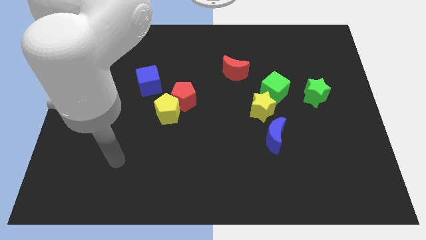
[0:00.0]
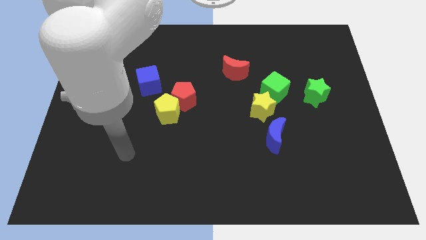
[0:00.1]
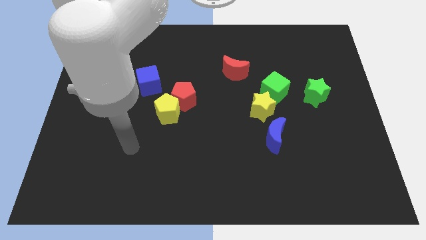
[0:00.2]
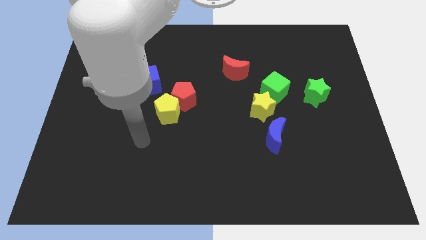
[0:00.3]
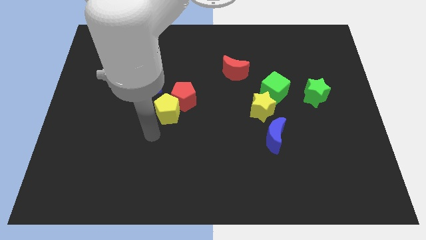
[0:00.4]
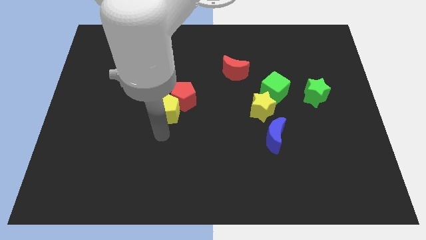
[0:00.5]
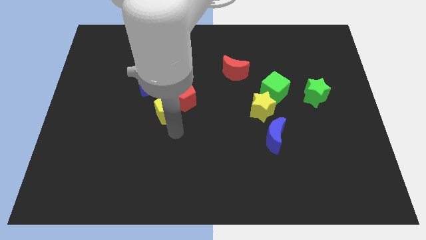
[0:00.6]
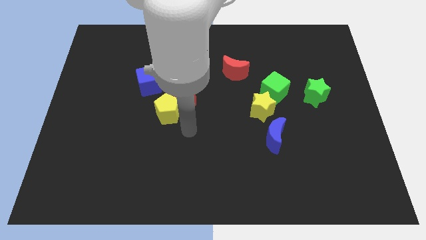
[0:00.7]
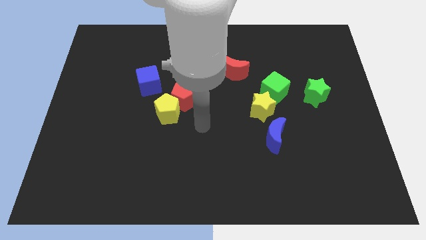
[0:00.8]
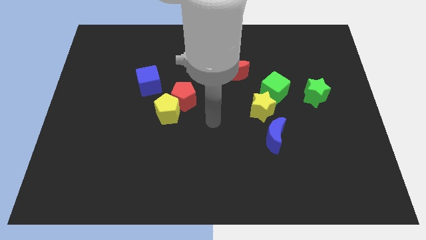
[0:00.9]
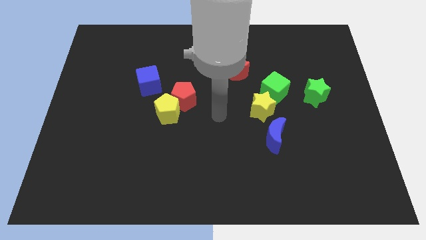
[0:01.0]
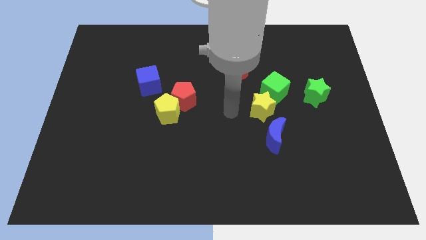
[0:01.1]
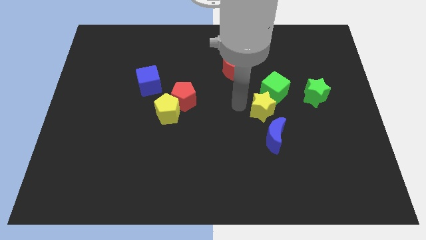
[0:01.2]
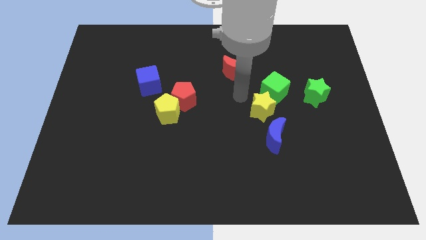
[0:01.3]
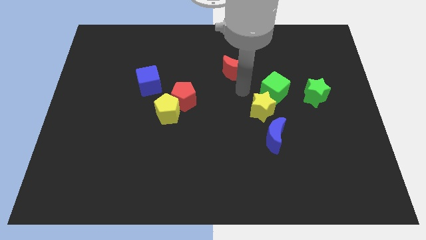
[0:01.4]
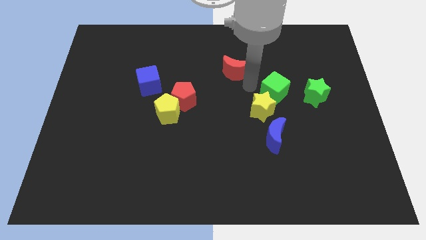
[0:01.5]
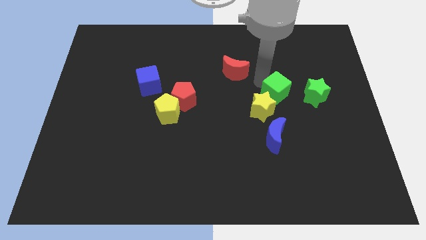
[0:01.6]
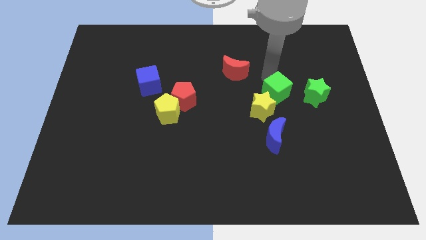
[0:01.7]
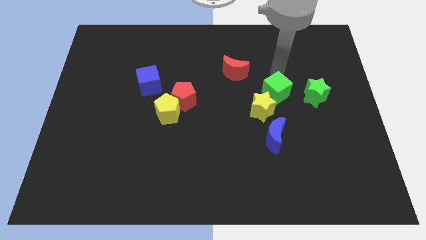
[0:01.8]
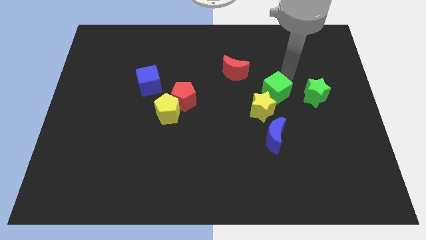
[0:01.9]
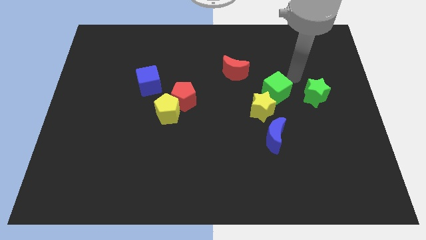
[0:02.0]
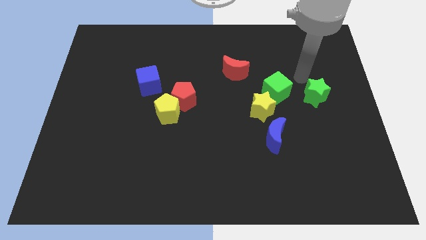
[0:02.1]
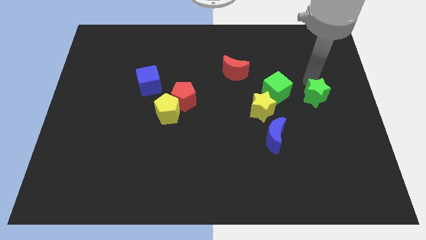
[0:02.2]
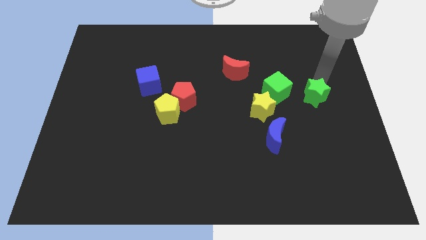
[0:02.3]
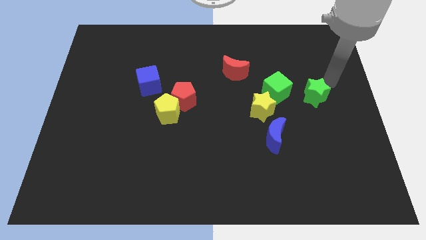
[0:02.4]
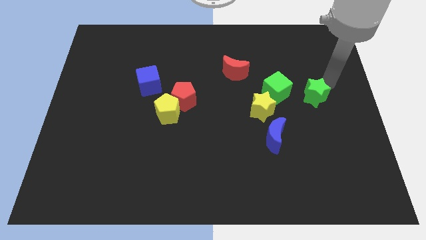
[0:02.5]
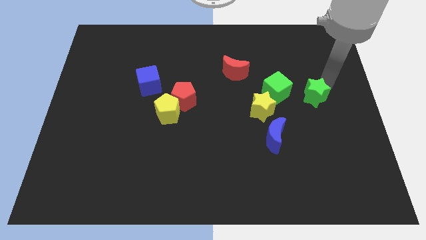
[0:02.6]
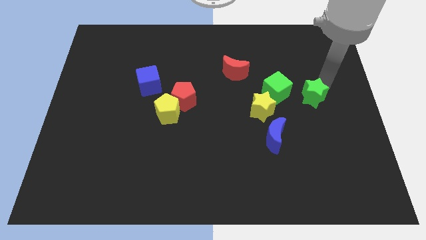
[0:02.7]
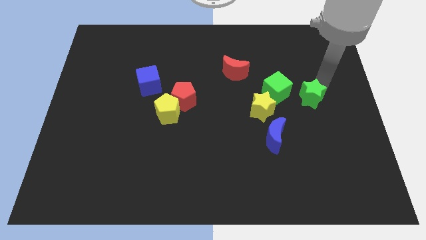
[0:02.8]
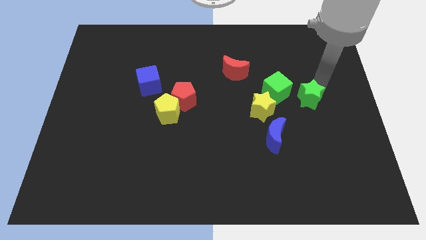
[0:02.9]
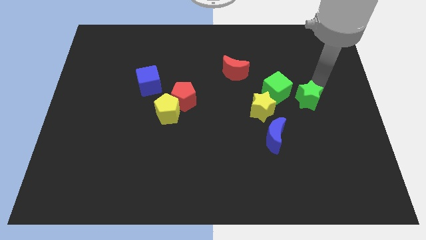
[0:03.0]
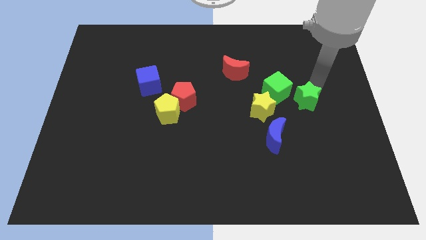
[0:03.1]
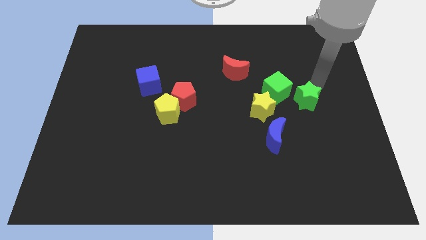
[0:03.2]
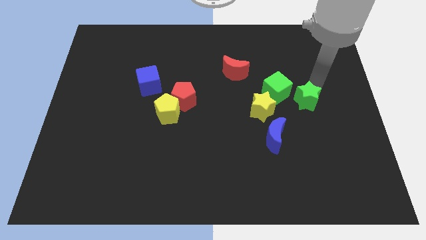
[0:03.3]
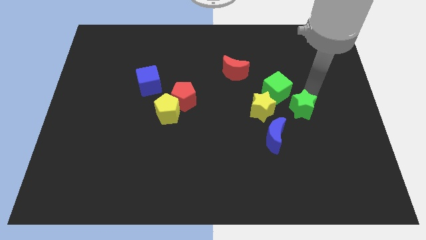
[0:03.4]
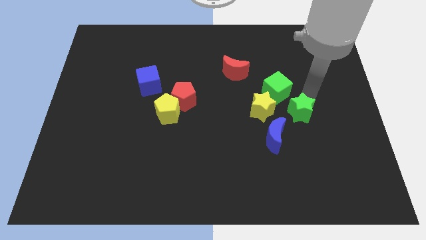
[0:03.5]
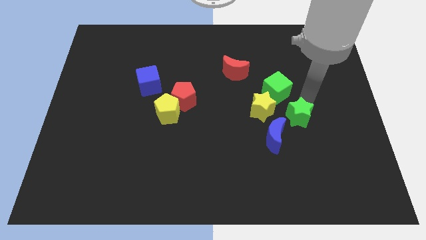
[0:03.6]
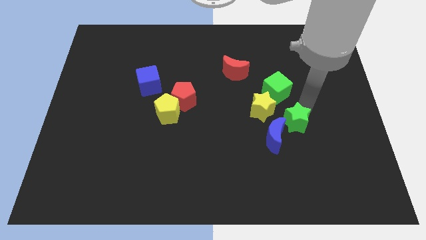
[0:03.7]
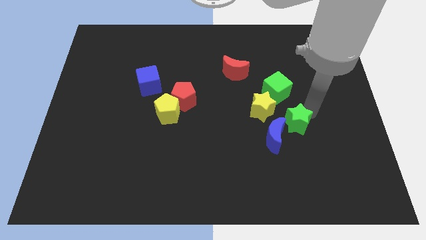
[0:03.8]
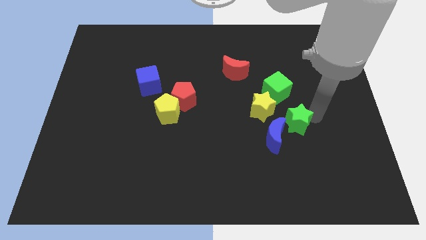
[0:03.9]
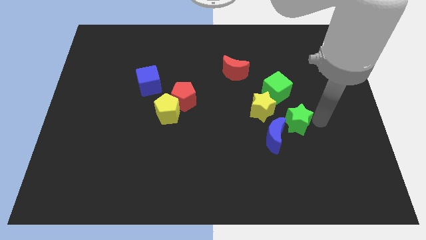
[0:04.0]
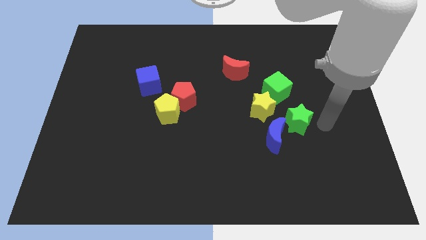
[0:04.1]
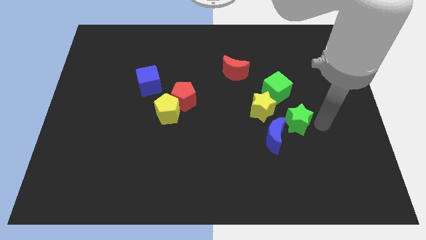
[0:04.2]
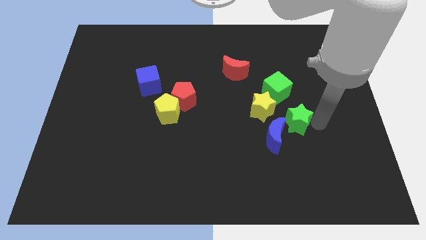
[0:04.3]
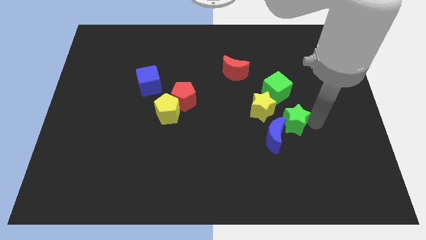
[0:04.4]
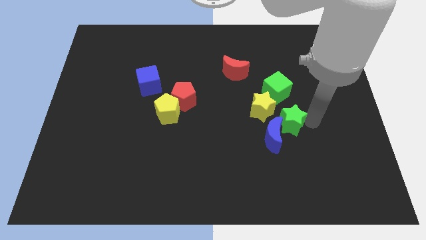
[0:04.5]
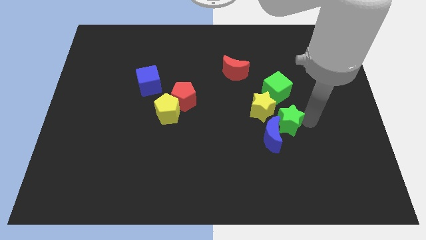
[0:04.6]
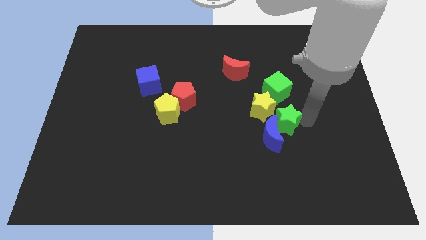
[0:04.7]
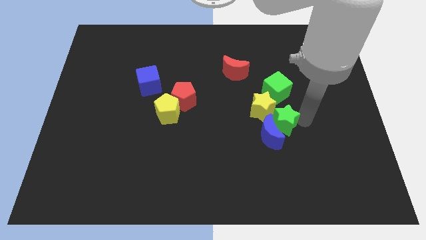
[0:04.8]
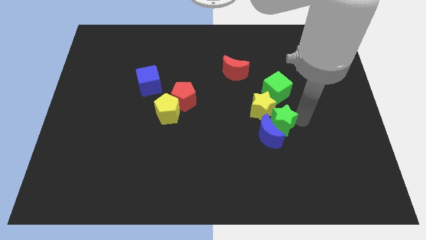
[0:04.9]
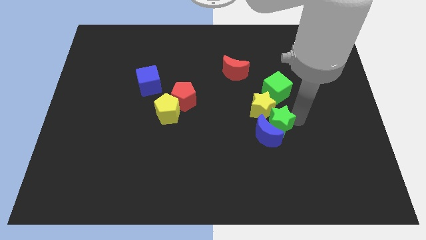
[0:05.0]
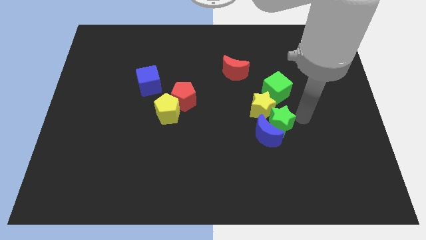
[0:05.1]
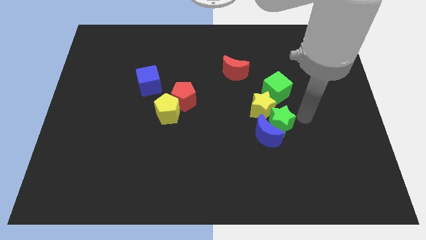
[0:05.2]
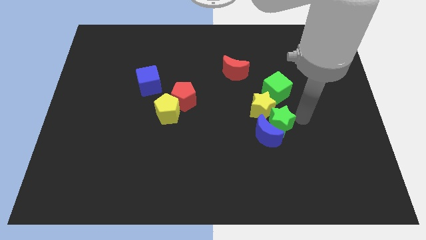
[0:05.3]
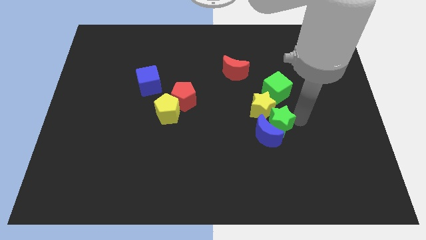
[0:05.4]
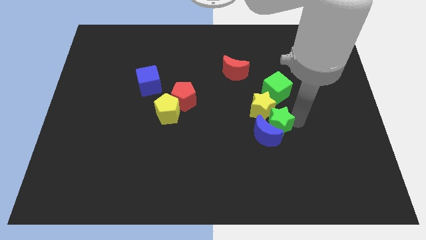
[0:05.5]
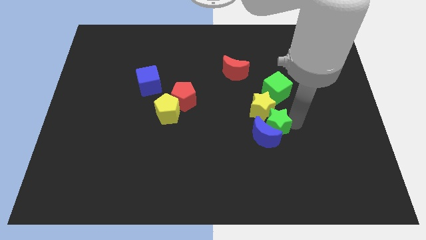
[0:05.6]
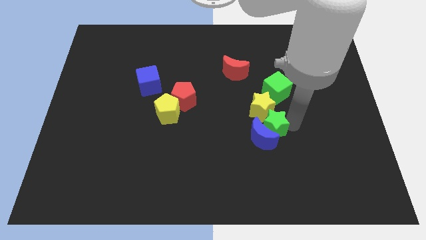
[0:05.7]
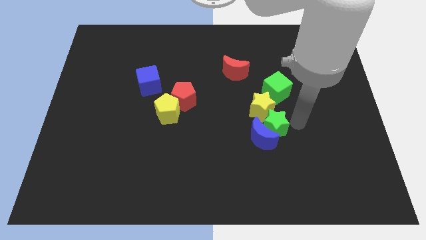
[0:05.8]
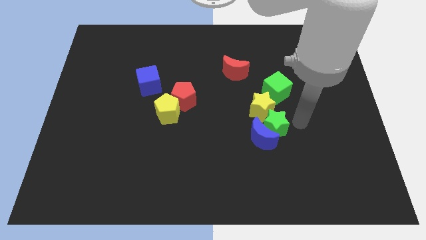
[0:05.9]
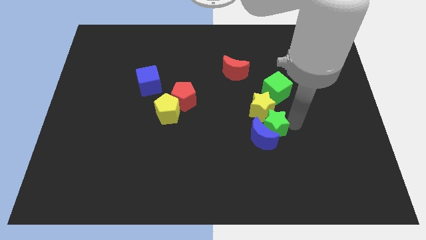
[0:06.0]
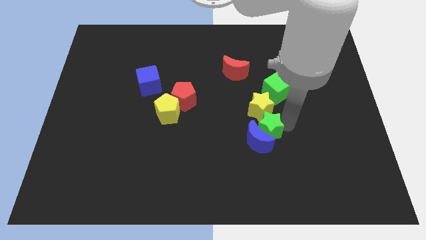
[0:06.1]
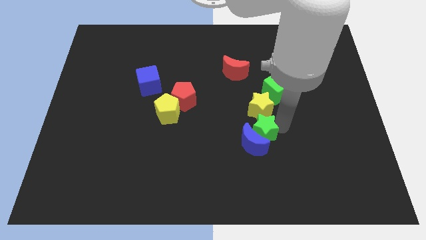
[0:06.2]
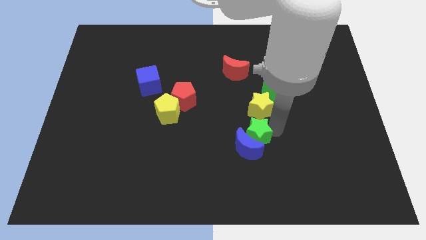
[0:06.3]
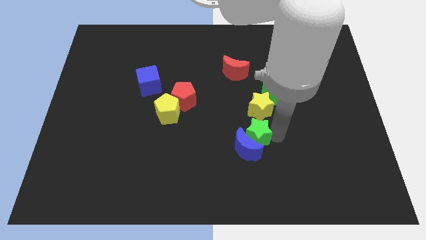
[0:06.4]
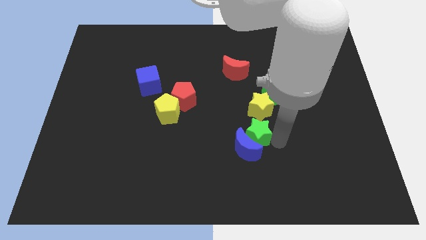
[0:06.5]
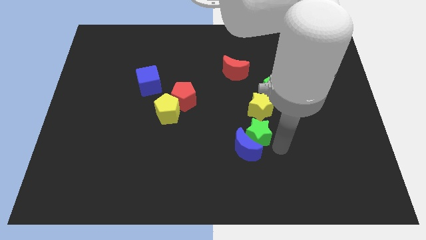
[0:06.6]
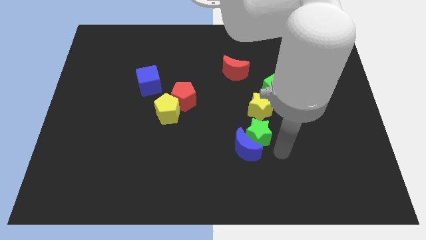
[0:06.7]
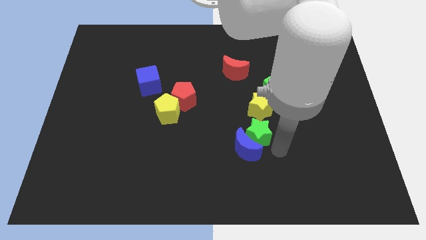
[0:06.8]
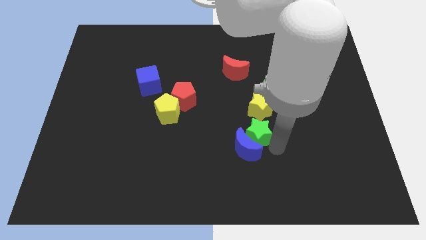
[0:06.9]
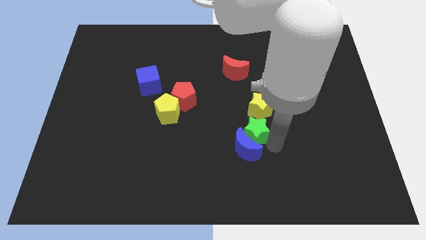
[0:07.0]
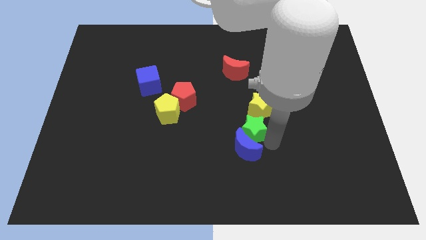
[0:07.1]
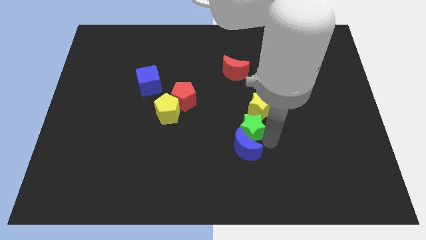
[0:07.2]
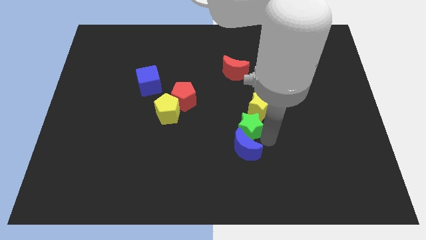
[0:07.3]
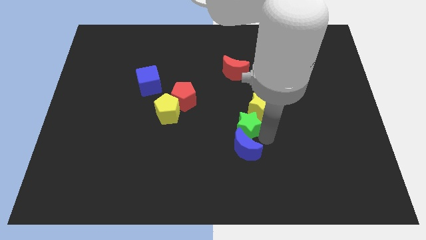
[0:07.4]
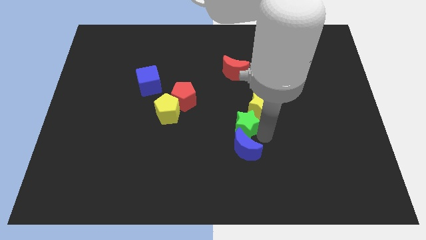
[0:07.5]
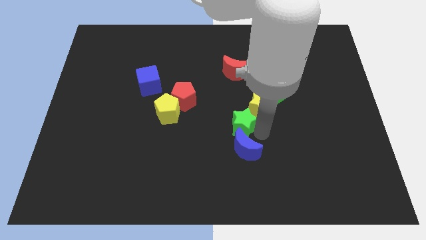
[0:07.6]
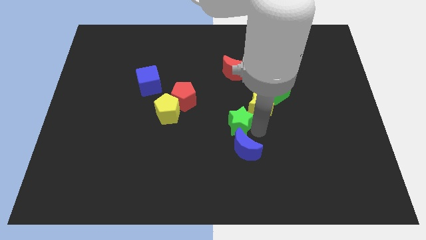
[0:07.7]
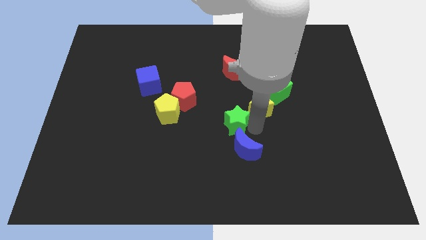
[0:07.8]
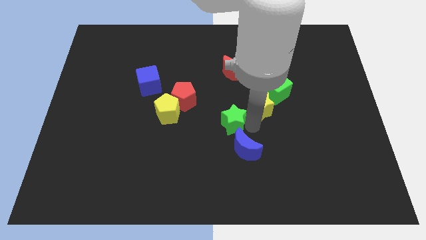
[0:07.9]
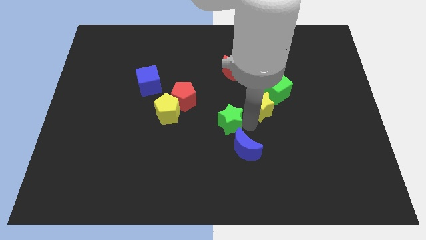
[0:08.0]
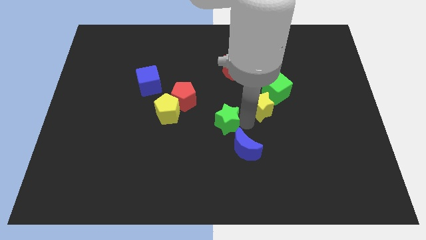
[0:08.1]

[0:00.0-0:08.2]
push the green star to the bottom right of the red pentagon
